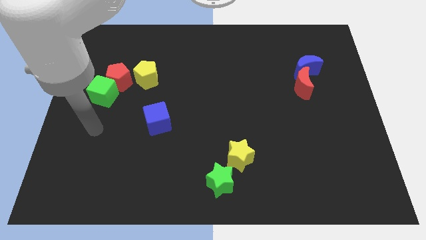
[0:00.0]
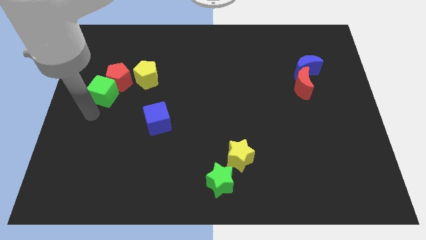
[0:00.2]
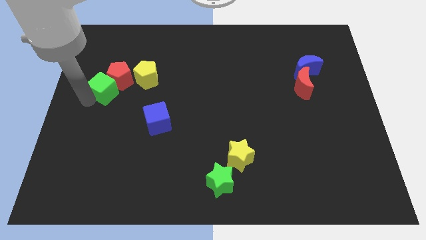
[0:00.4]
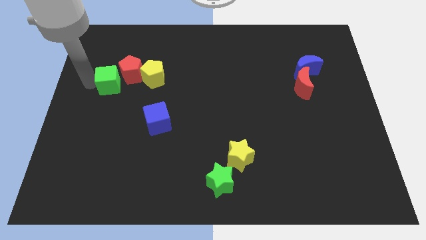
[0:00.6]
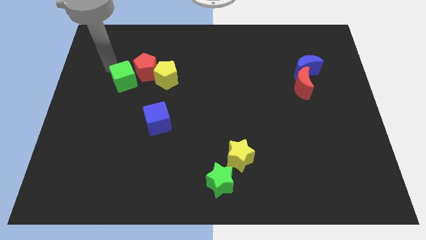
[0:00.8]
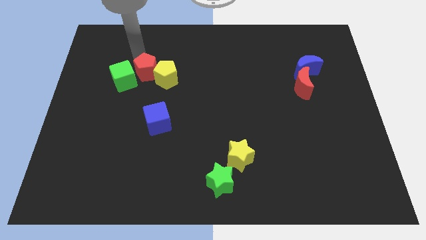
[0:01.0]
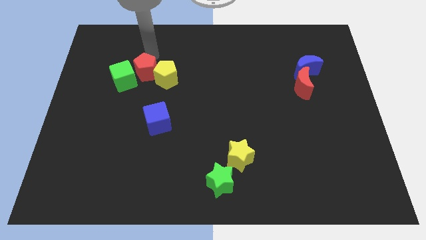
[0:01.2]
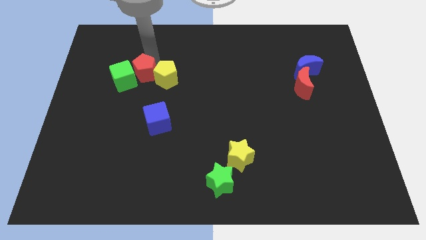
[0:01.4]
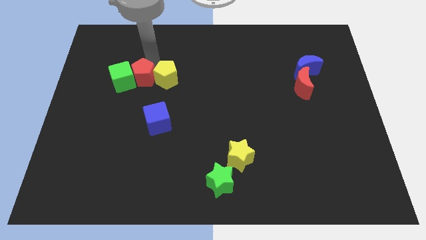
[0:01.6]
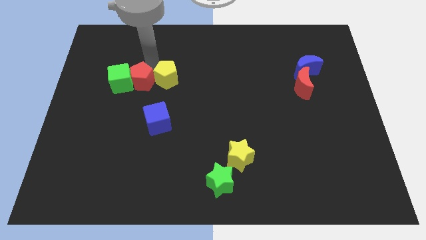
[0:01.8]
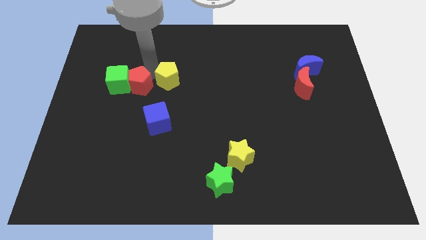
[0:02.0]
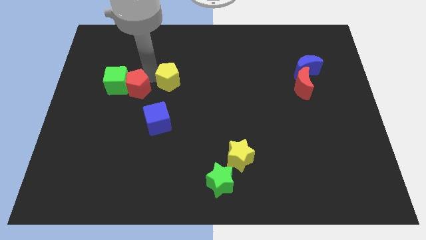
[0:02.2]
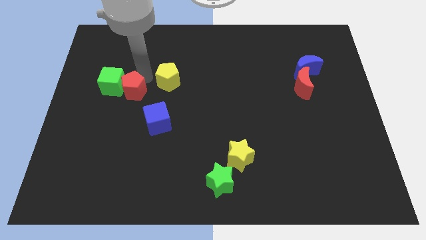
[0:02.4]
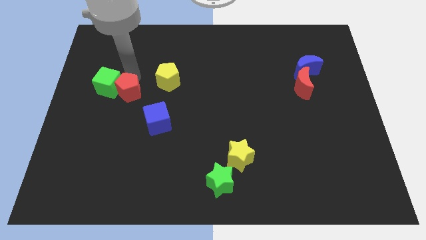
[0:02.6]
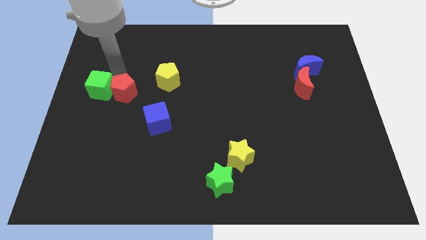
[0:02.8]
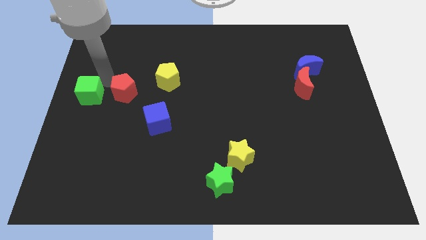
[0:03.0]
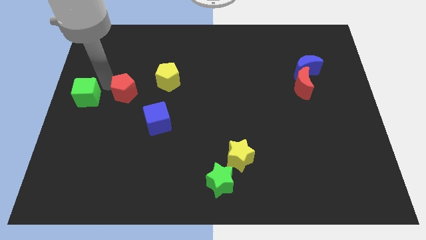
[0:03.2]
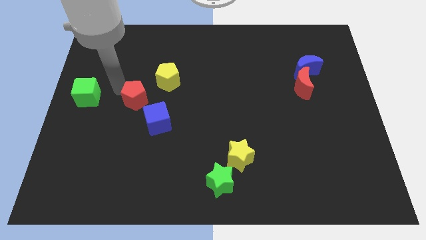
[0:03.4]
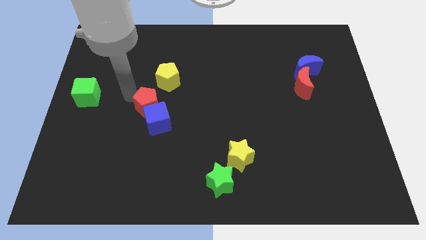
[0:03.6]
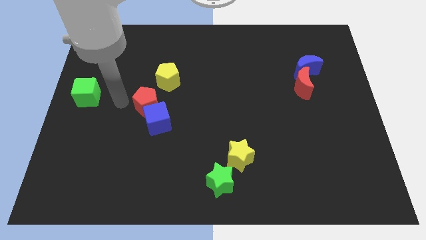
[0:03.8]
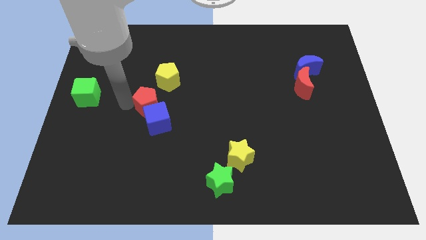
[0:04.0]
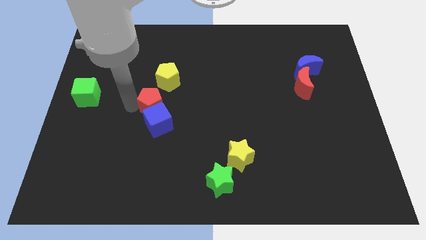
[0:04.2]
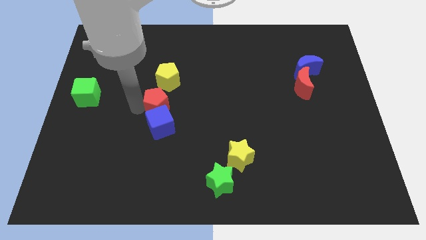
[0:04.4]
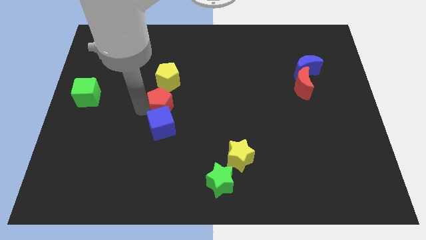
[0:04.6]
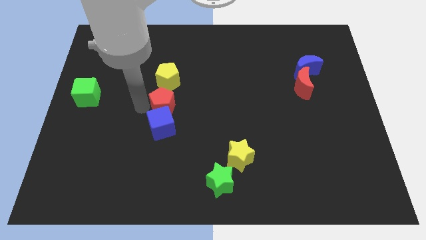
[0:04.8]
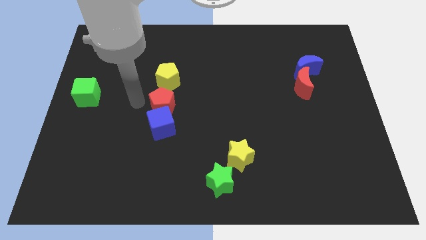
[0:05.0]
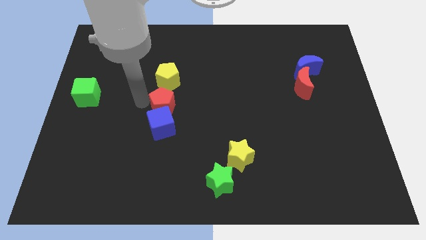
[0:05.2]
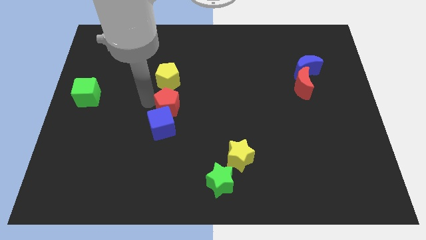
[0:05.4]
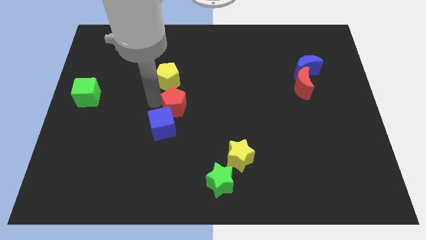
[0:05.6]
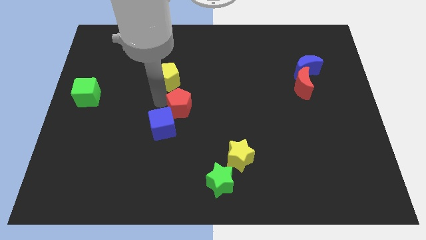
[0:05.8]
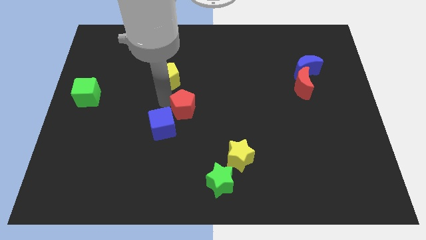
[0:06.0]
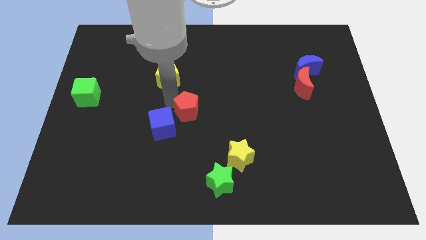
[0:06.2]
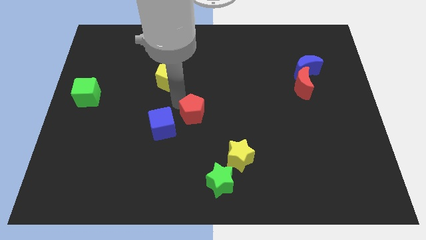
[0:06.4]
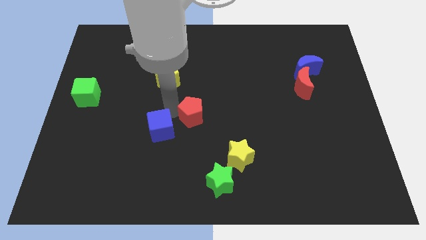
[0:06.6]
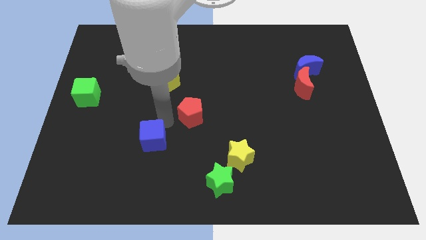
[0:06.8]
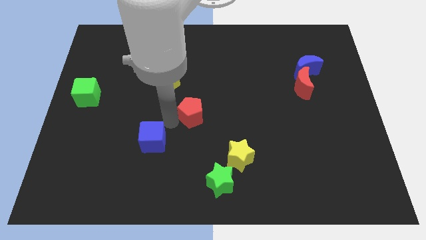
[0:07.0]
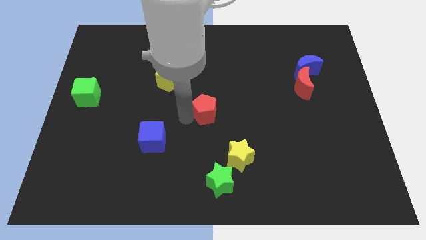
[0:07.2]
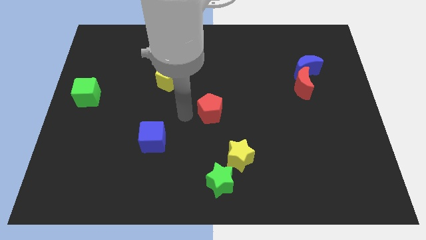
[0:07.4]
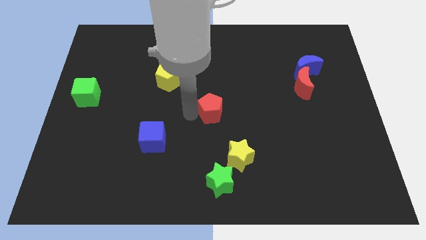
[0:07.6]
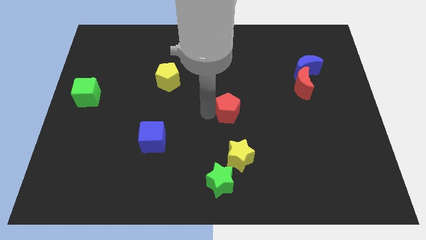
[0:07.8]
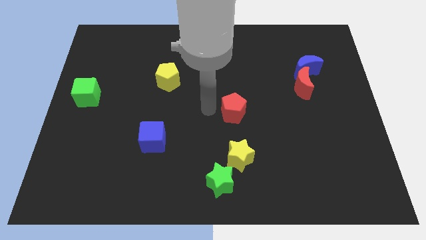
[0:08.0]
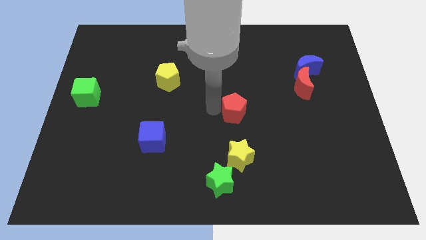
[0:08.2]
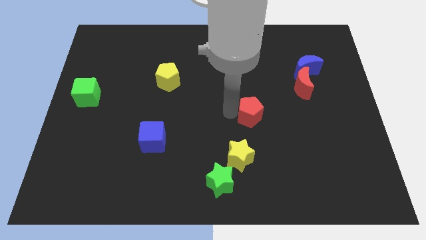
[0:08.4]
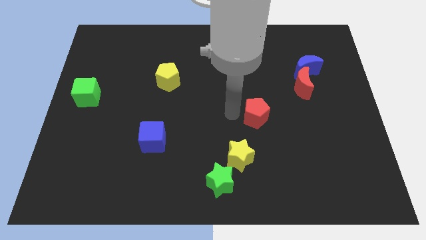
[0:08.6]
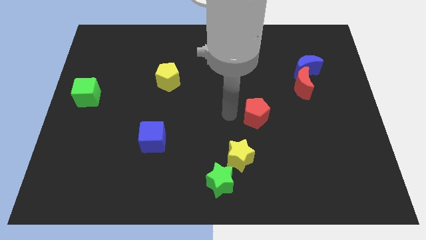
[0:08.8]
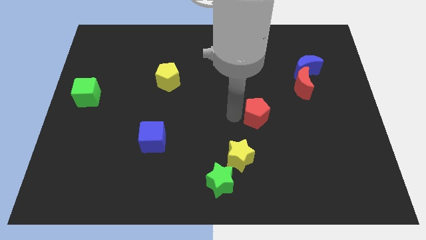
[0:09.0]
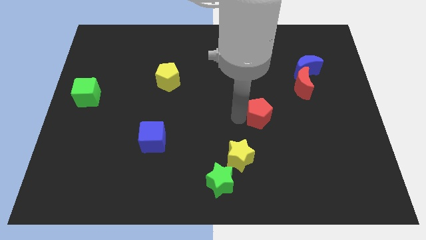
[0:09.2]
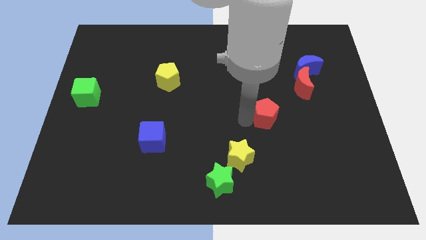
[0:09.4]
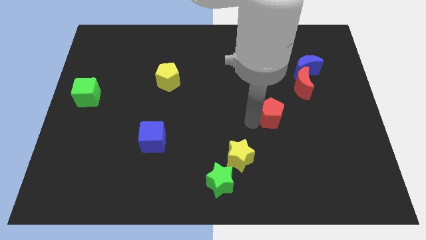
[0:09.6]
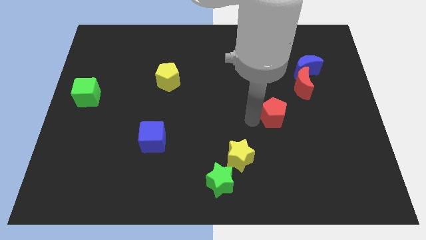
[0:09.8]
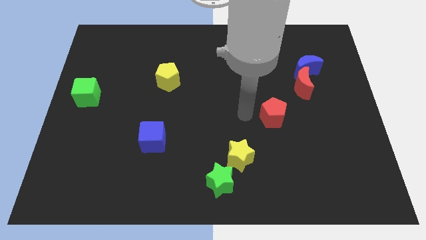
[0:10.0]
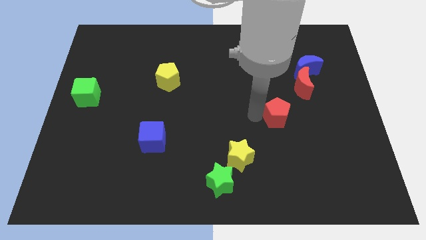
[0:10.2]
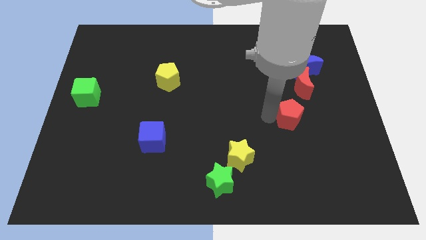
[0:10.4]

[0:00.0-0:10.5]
push the red pentagon below the red moon

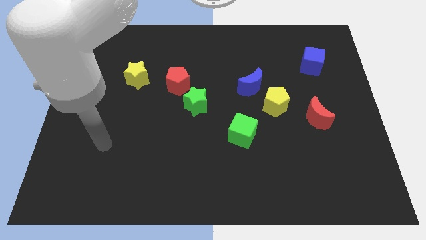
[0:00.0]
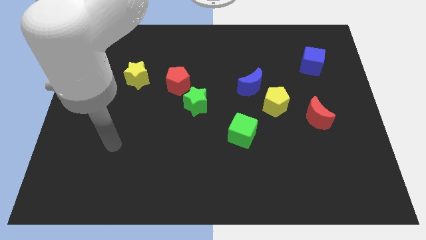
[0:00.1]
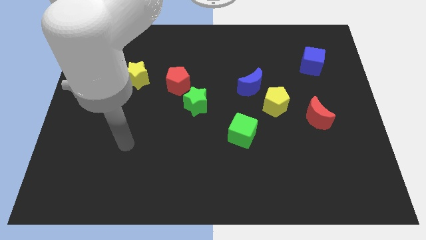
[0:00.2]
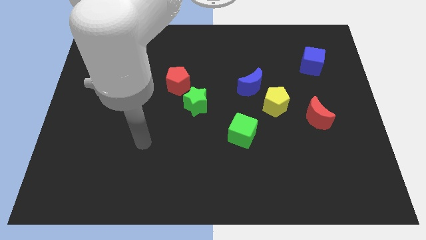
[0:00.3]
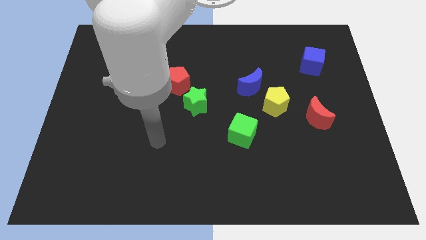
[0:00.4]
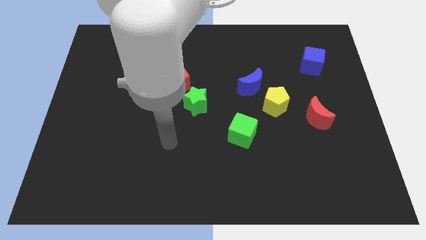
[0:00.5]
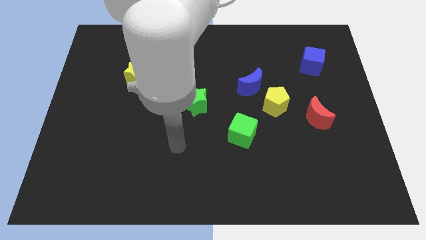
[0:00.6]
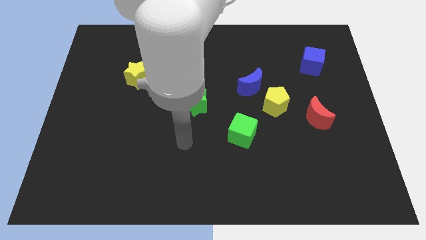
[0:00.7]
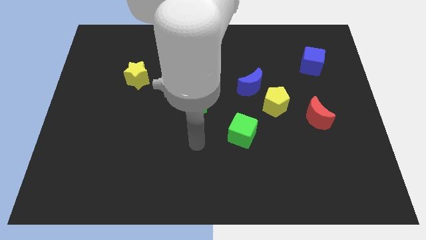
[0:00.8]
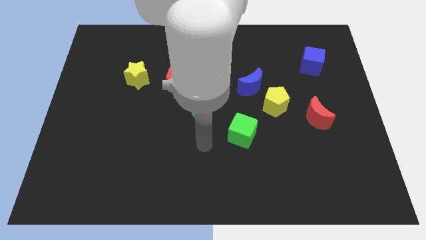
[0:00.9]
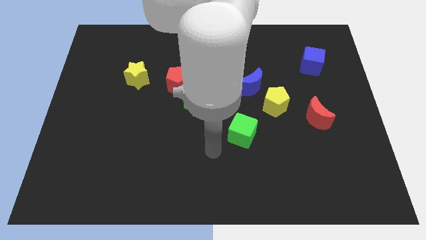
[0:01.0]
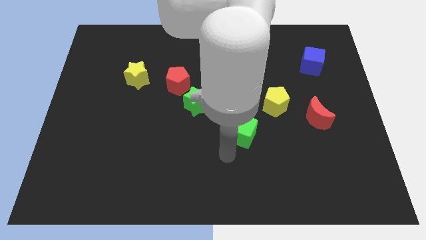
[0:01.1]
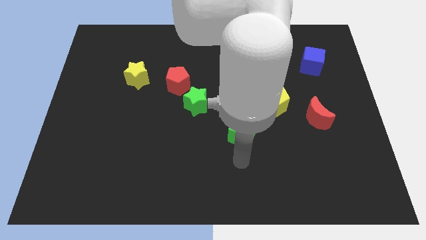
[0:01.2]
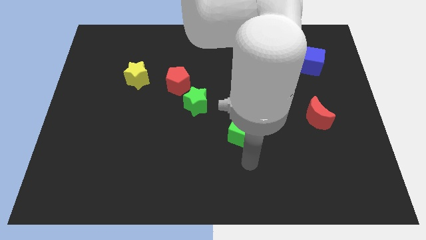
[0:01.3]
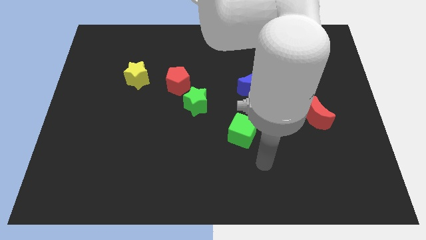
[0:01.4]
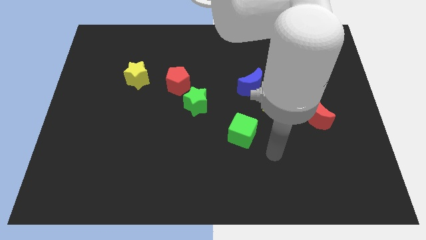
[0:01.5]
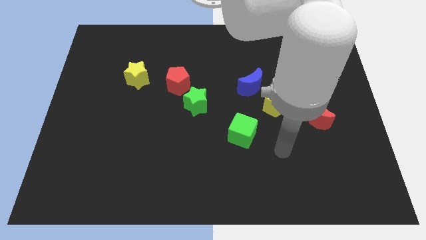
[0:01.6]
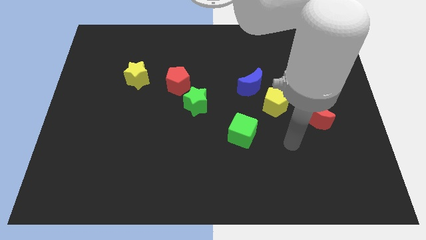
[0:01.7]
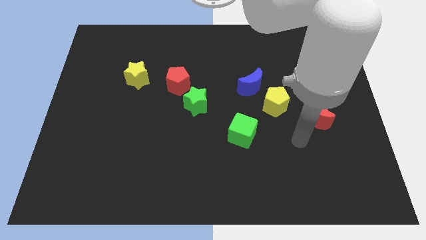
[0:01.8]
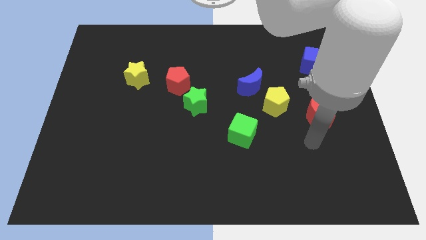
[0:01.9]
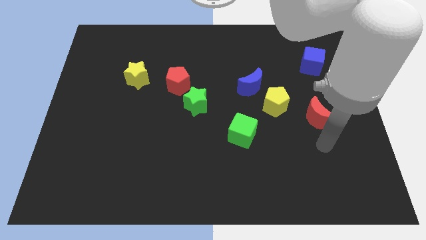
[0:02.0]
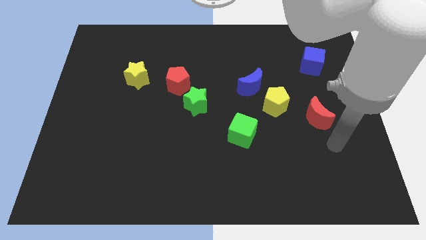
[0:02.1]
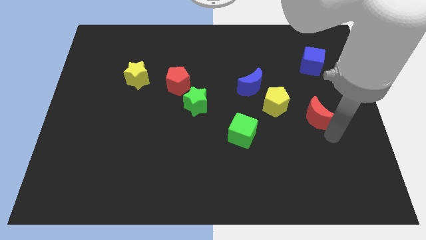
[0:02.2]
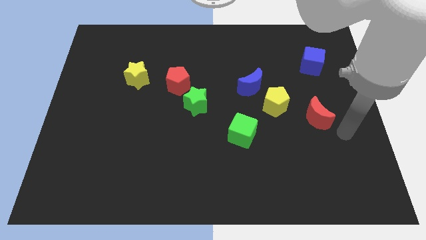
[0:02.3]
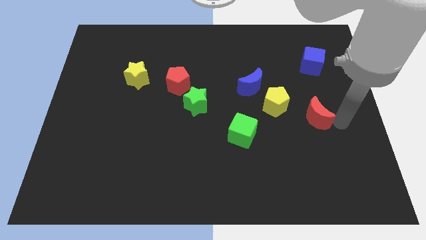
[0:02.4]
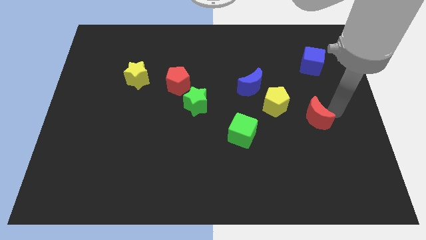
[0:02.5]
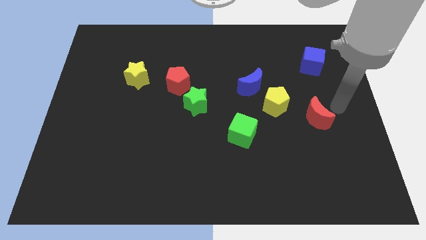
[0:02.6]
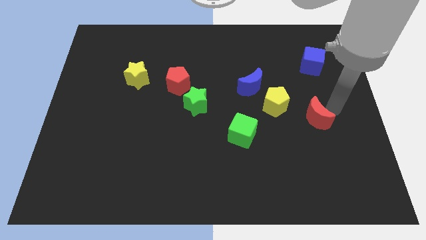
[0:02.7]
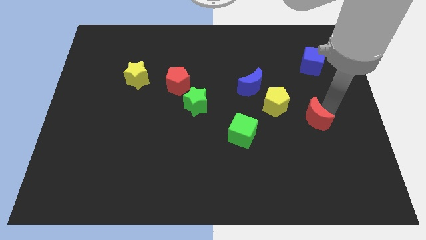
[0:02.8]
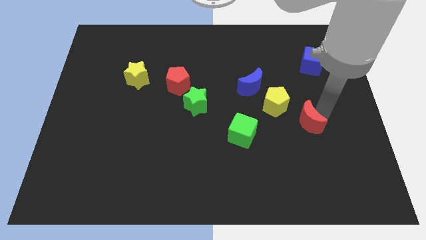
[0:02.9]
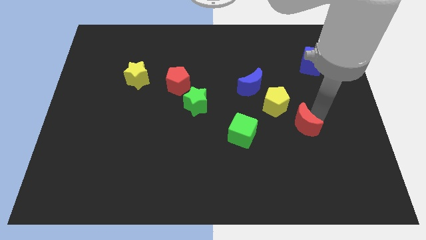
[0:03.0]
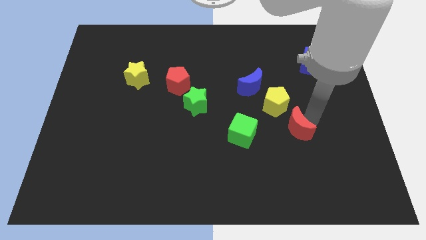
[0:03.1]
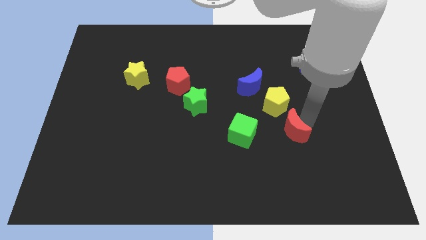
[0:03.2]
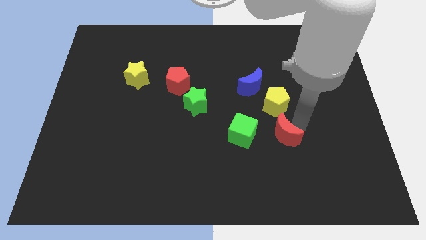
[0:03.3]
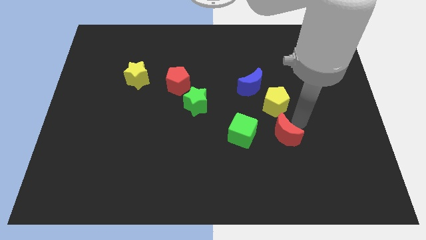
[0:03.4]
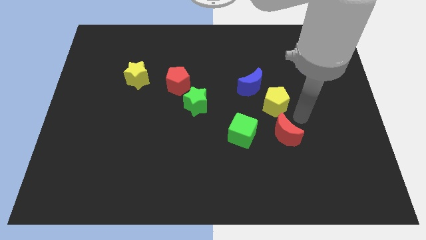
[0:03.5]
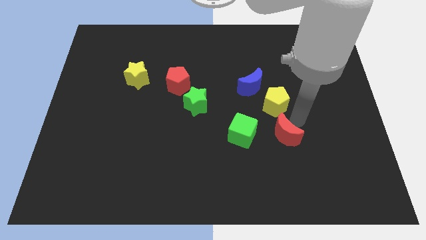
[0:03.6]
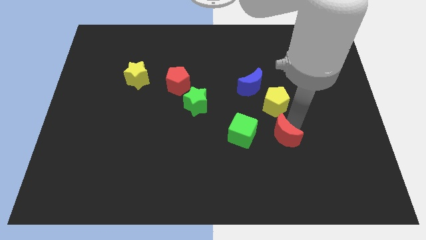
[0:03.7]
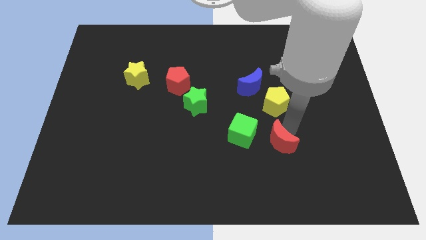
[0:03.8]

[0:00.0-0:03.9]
put the red moon to the bottom right side of the green cube
